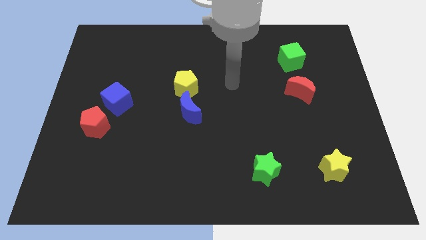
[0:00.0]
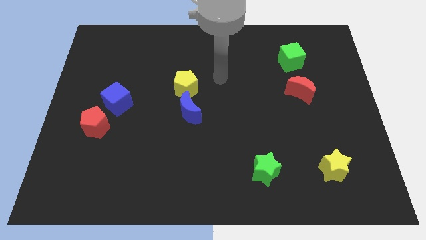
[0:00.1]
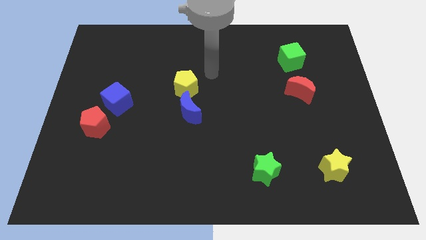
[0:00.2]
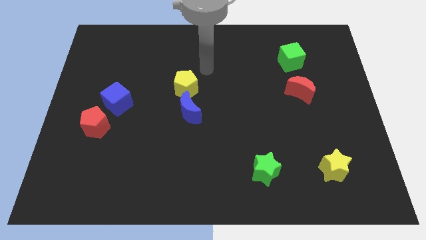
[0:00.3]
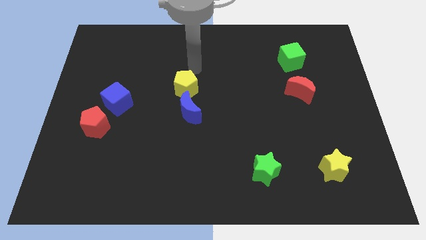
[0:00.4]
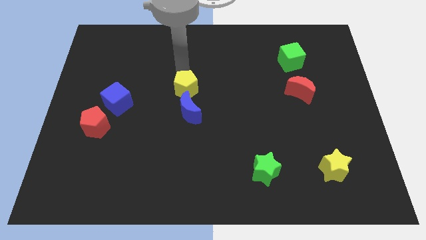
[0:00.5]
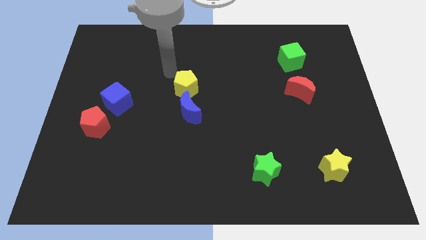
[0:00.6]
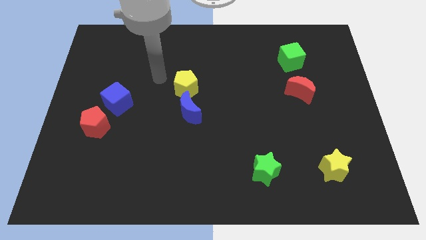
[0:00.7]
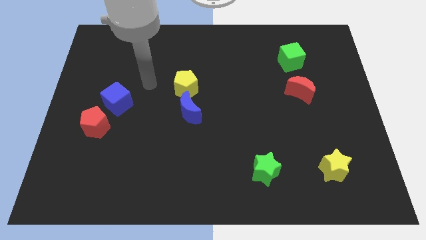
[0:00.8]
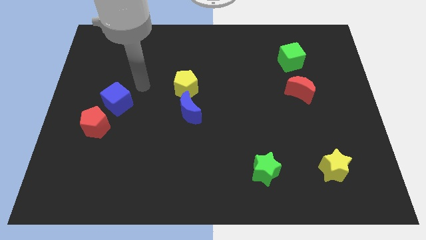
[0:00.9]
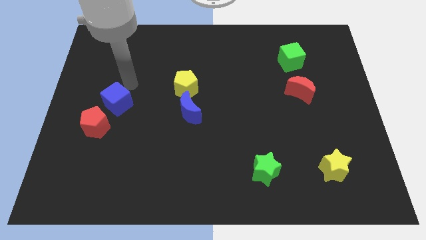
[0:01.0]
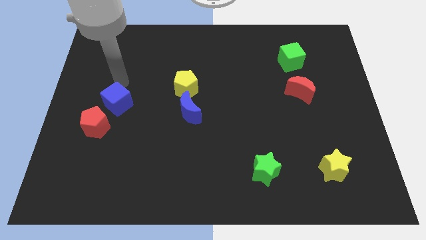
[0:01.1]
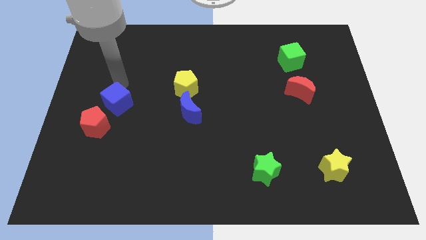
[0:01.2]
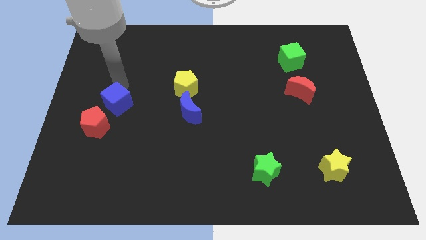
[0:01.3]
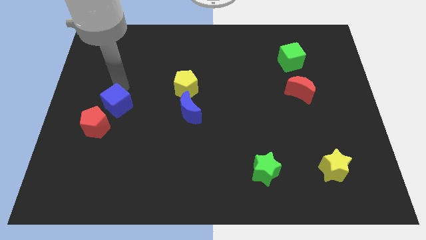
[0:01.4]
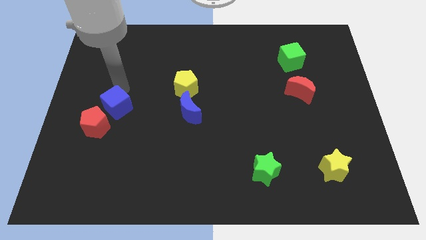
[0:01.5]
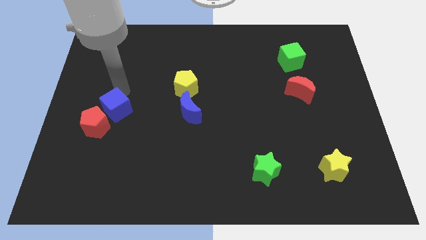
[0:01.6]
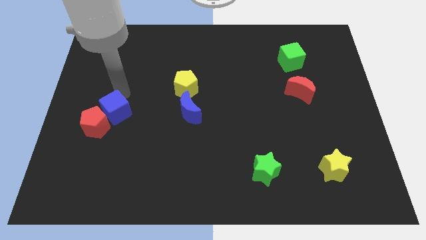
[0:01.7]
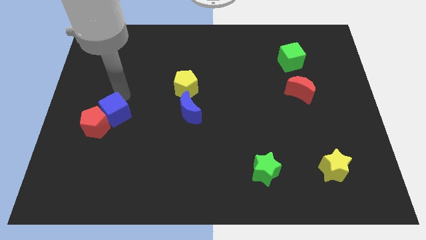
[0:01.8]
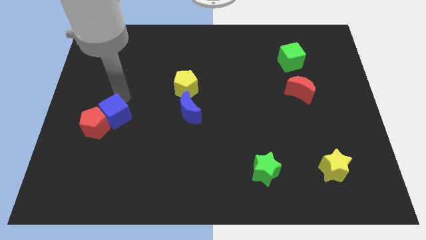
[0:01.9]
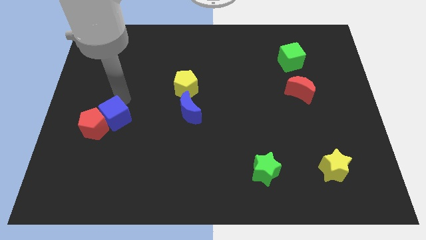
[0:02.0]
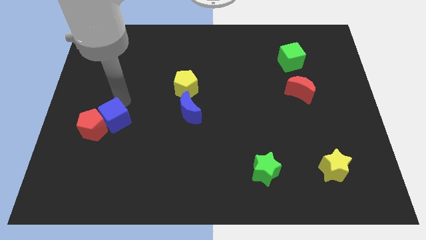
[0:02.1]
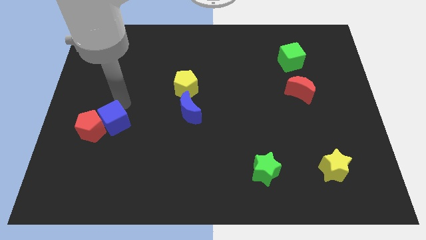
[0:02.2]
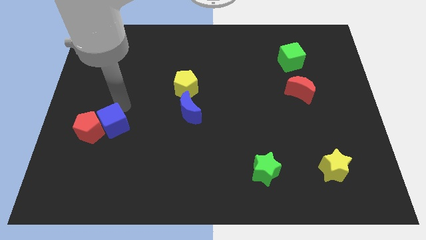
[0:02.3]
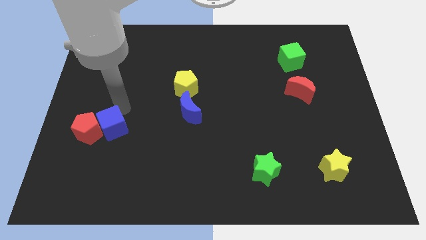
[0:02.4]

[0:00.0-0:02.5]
move the blue cube downwards a little bit

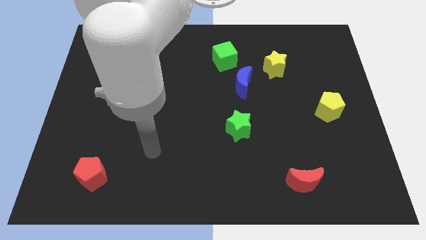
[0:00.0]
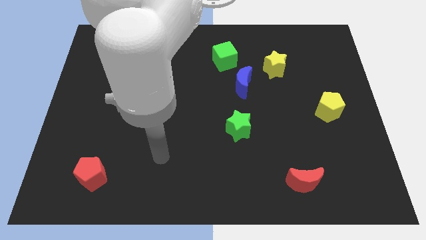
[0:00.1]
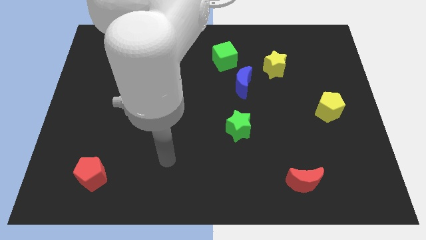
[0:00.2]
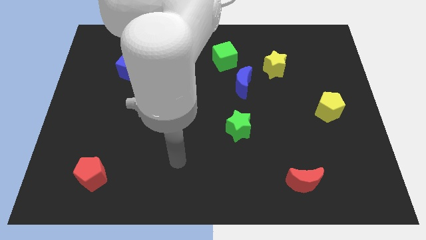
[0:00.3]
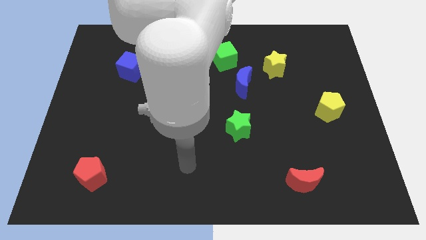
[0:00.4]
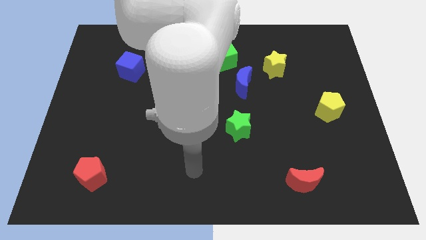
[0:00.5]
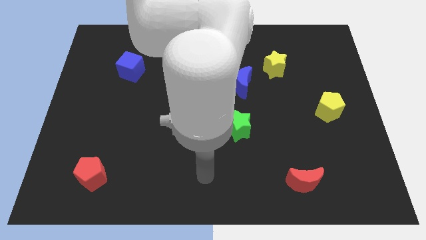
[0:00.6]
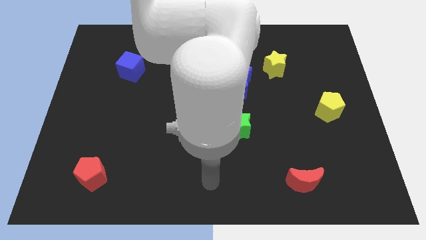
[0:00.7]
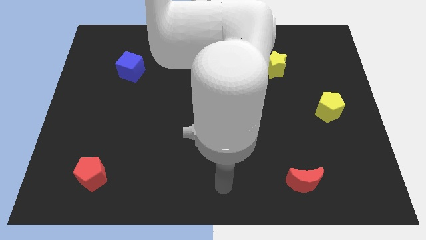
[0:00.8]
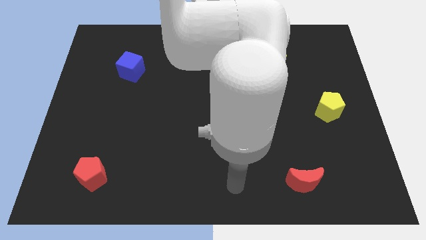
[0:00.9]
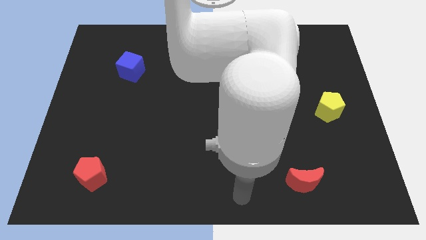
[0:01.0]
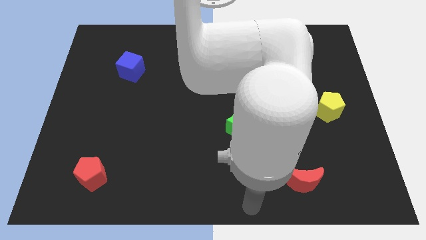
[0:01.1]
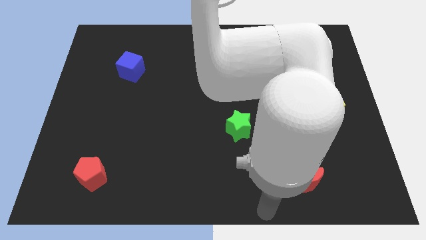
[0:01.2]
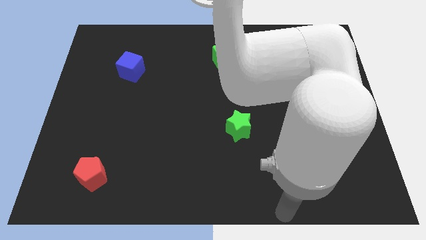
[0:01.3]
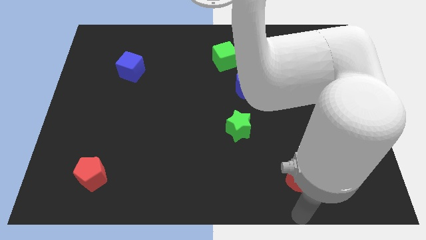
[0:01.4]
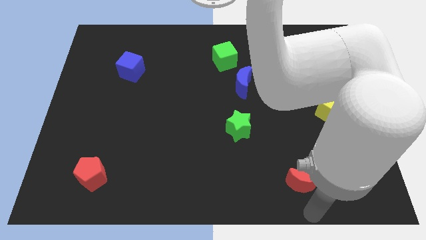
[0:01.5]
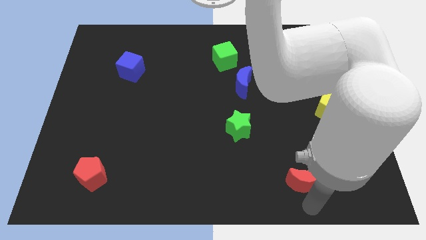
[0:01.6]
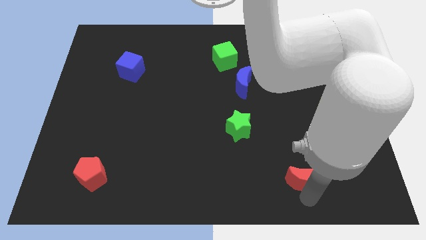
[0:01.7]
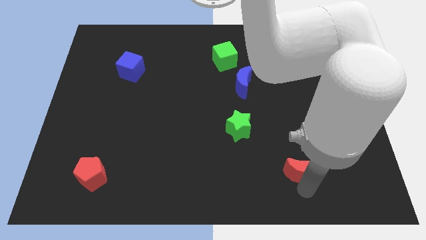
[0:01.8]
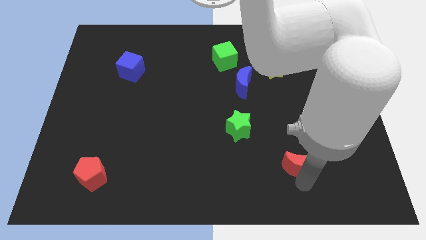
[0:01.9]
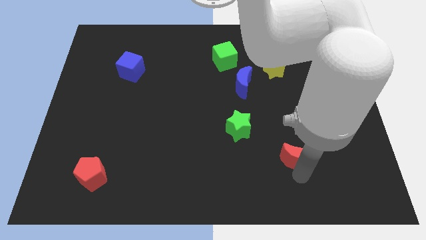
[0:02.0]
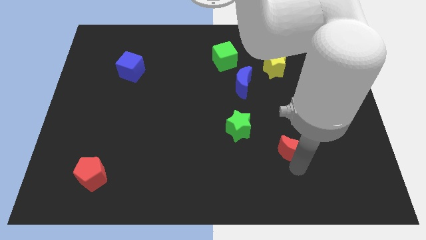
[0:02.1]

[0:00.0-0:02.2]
slightly slide the red moon upwards

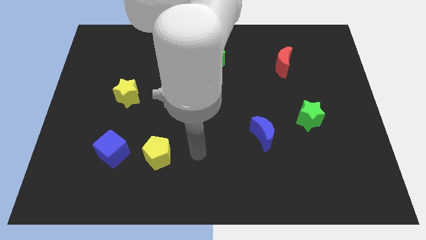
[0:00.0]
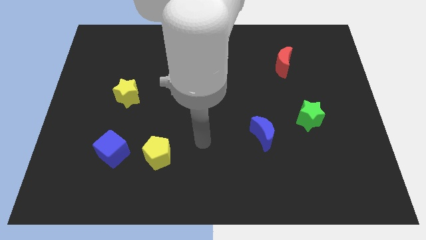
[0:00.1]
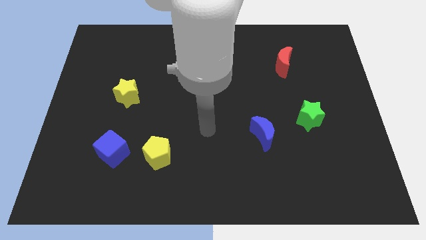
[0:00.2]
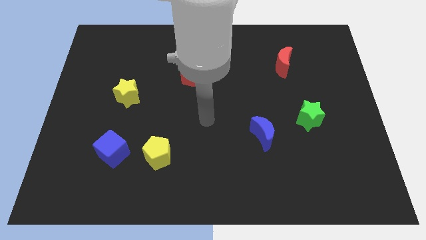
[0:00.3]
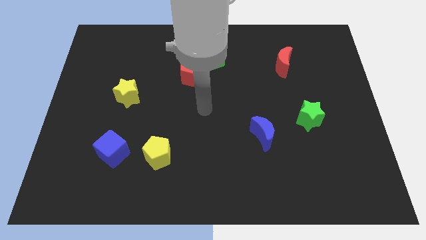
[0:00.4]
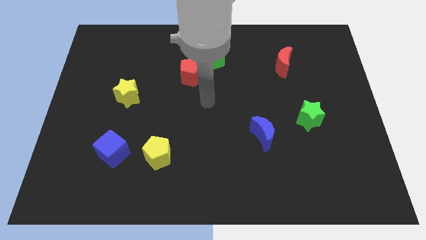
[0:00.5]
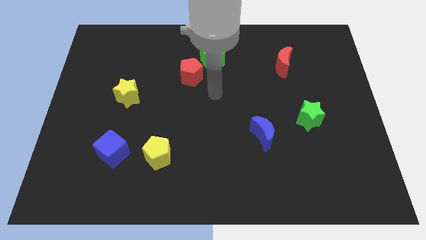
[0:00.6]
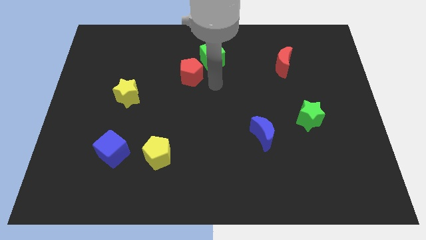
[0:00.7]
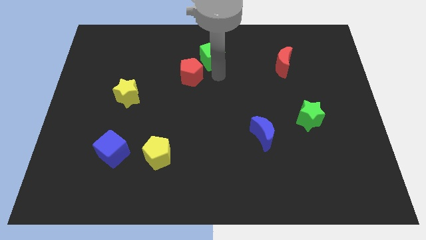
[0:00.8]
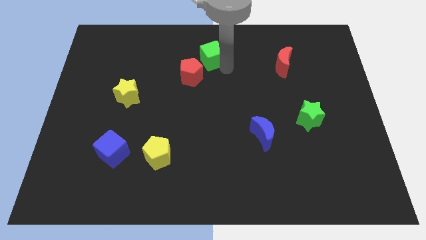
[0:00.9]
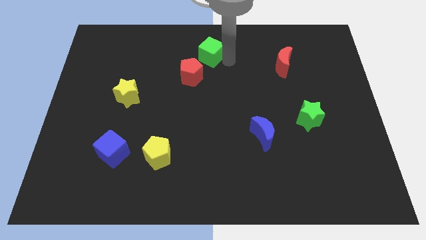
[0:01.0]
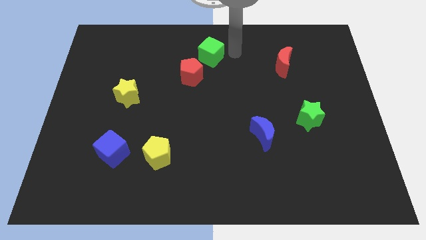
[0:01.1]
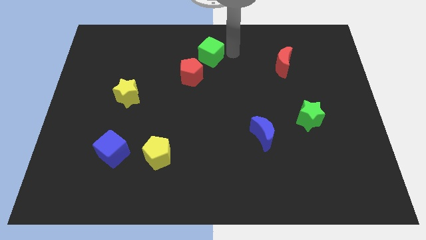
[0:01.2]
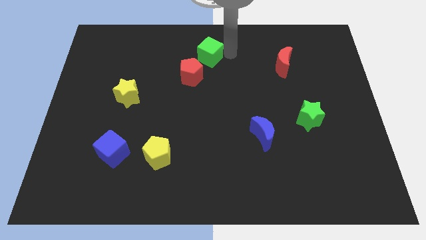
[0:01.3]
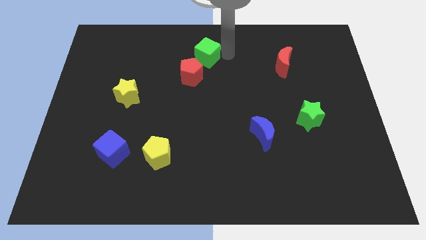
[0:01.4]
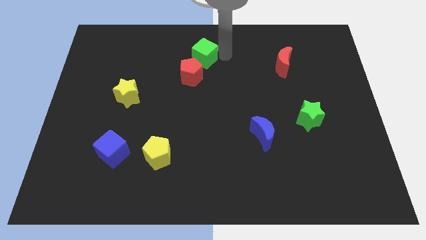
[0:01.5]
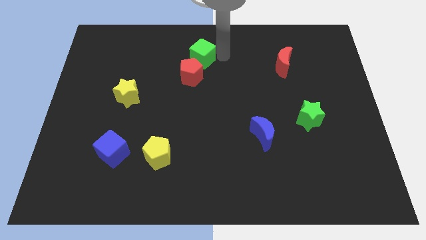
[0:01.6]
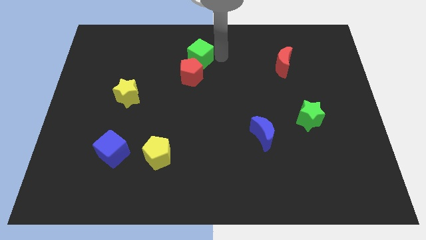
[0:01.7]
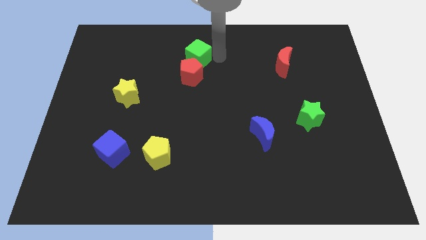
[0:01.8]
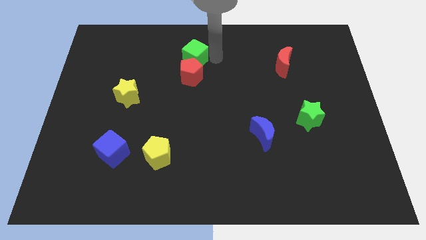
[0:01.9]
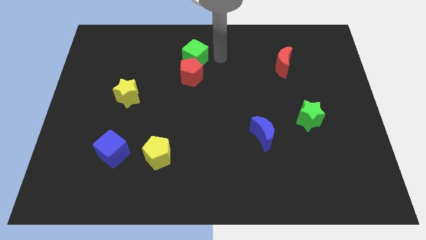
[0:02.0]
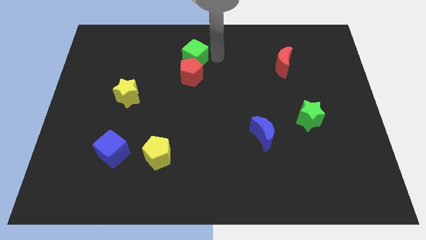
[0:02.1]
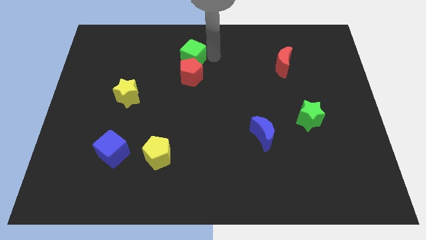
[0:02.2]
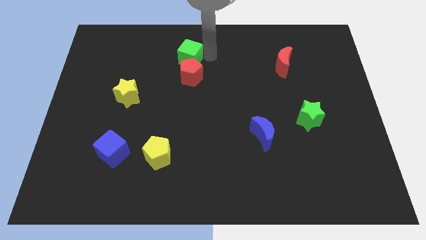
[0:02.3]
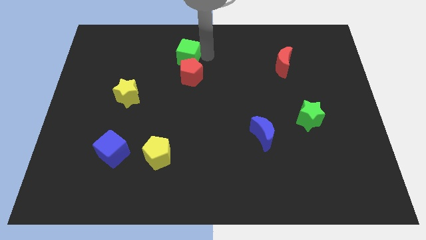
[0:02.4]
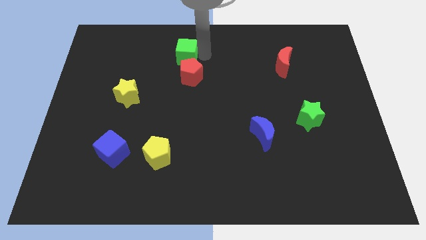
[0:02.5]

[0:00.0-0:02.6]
move the green cube a bit left

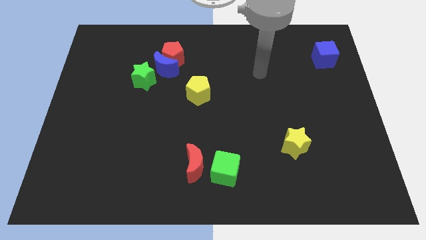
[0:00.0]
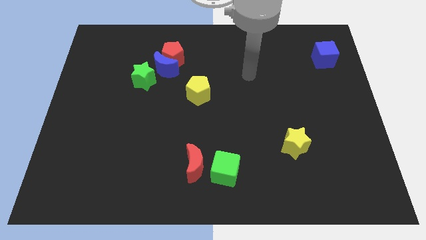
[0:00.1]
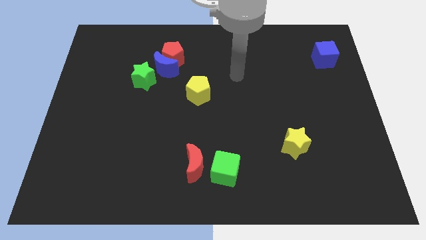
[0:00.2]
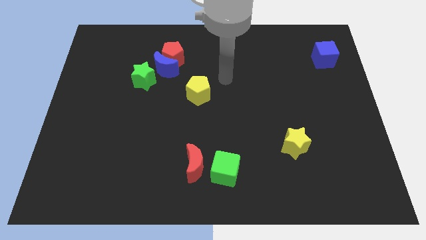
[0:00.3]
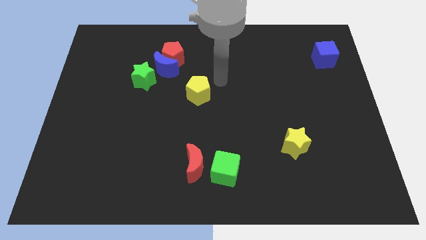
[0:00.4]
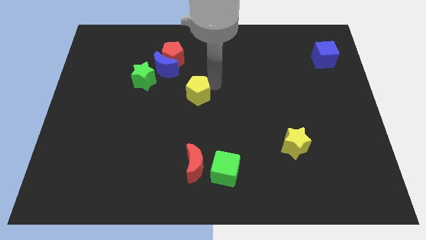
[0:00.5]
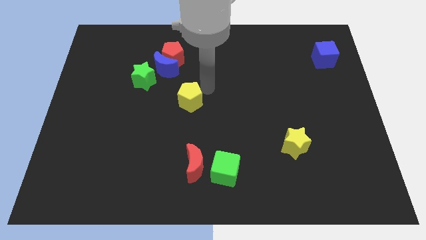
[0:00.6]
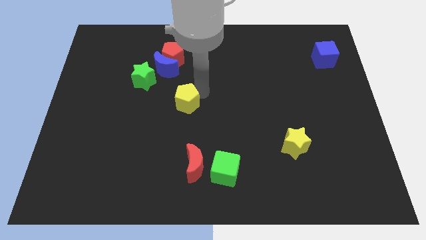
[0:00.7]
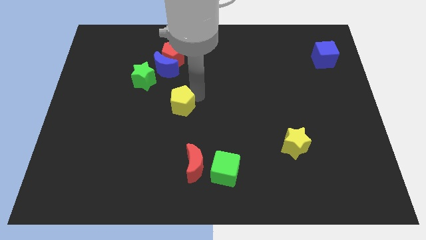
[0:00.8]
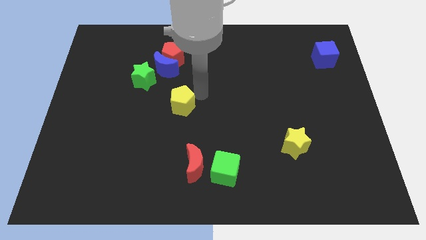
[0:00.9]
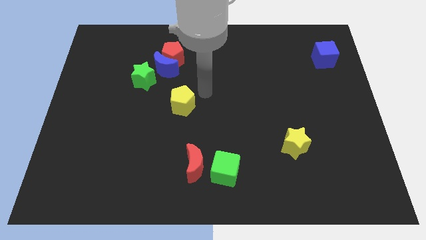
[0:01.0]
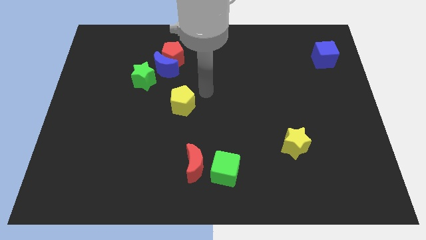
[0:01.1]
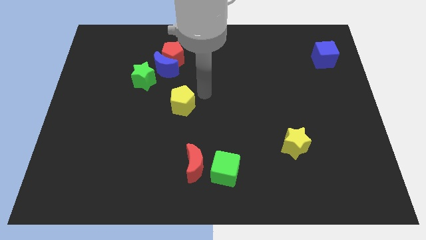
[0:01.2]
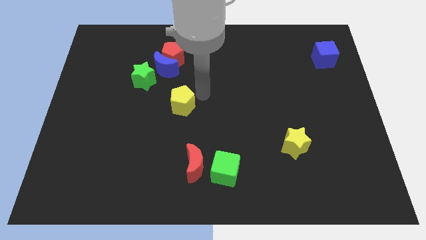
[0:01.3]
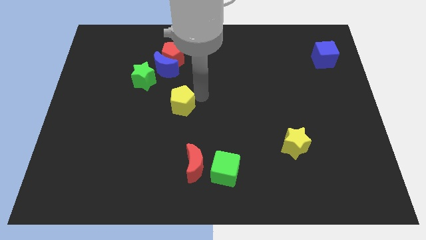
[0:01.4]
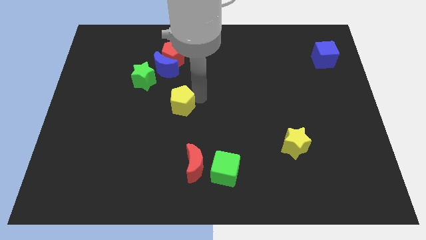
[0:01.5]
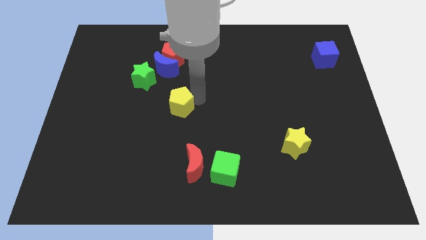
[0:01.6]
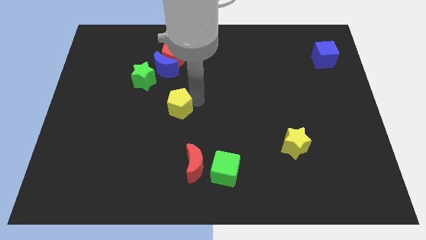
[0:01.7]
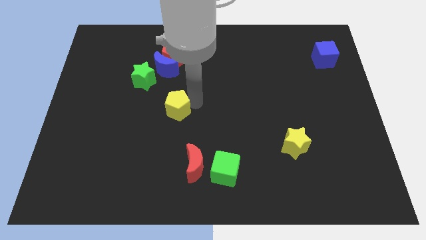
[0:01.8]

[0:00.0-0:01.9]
push the yellow pentagon diagonally downwards and left a little bit
